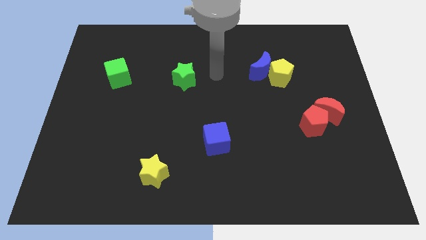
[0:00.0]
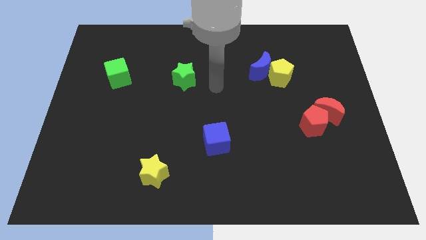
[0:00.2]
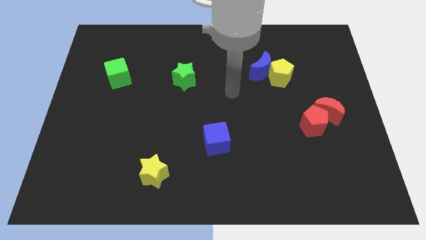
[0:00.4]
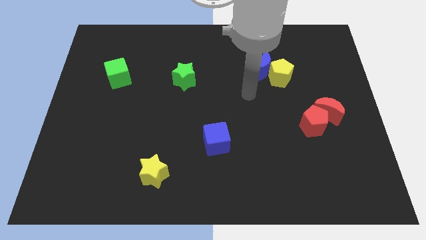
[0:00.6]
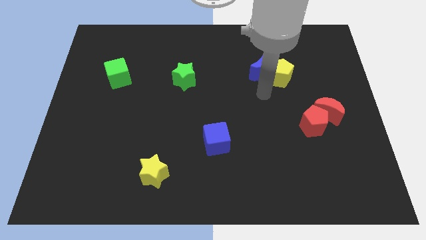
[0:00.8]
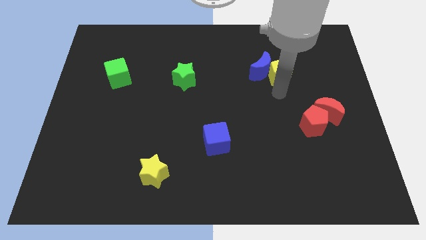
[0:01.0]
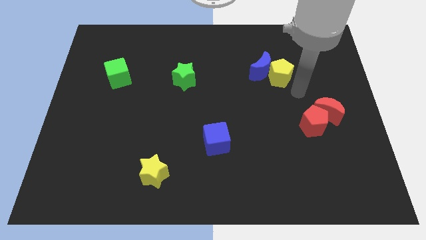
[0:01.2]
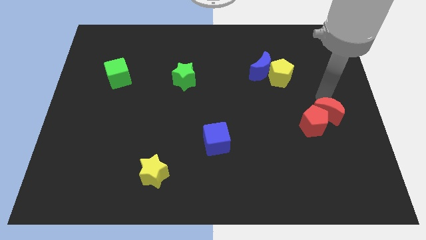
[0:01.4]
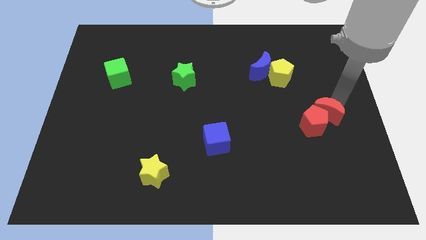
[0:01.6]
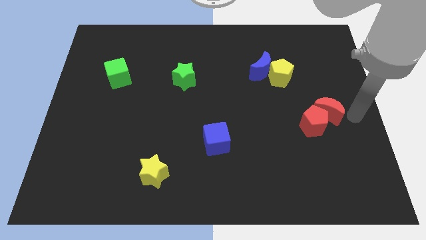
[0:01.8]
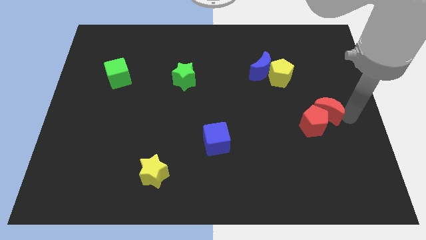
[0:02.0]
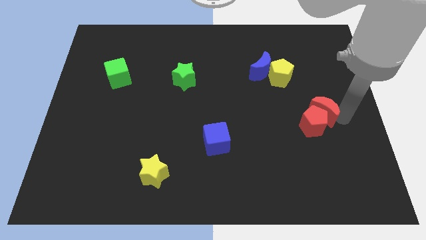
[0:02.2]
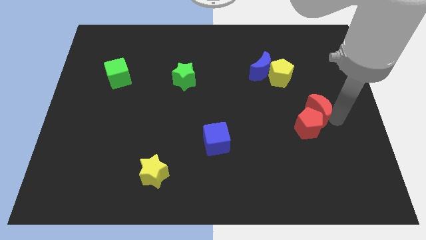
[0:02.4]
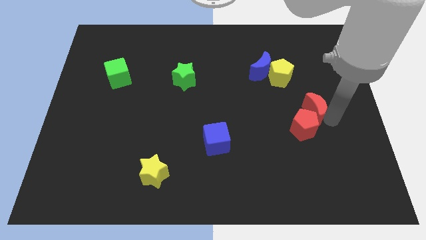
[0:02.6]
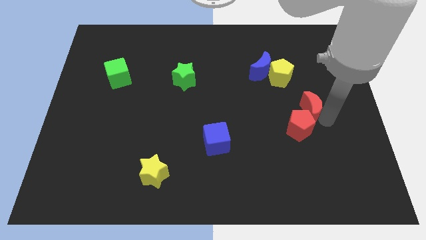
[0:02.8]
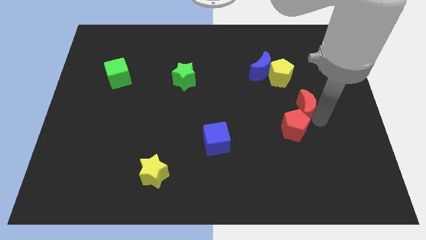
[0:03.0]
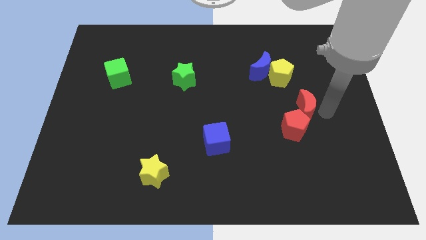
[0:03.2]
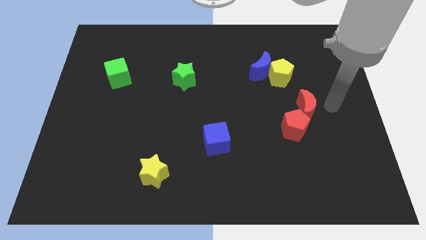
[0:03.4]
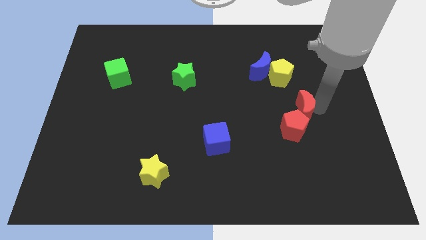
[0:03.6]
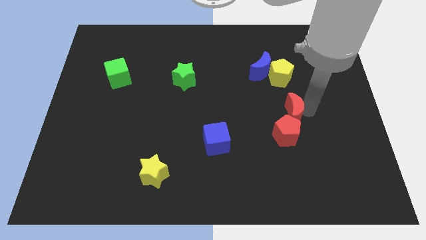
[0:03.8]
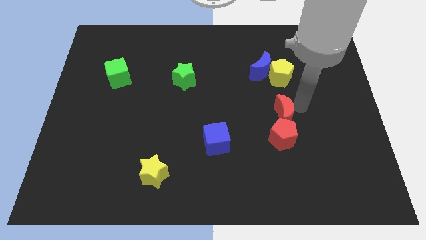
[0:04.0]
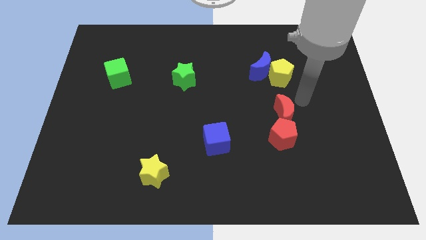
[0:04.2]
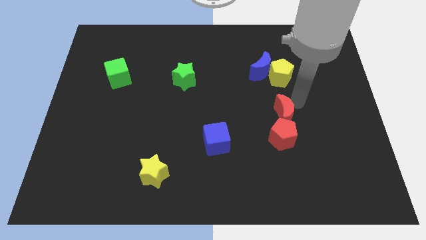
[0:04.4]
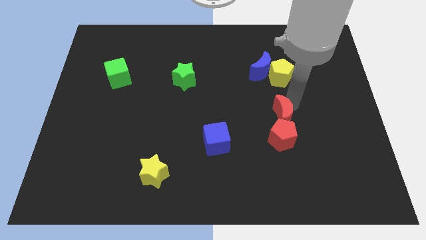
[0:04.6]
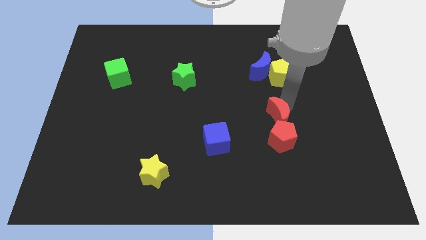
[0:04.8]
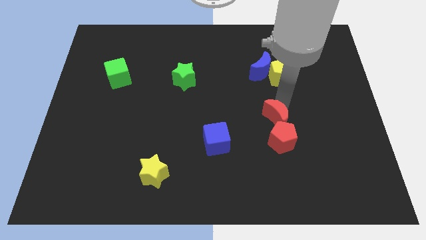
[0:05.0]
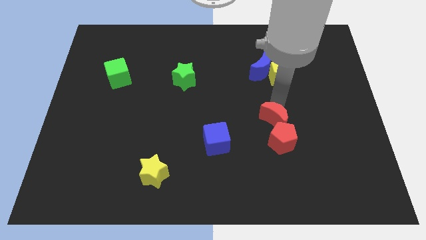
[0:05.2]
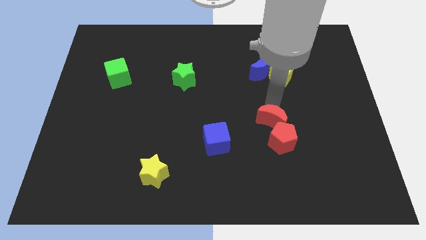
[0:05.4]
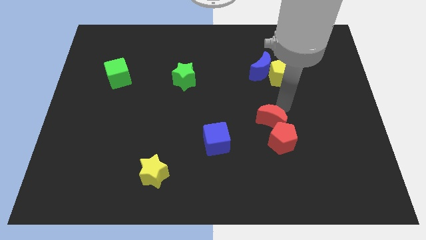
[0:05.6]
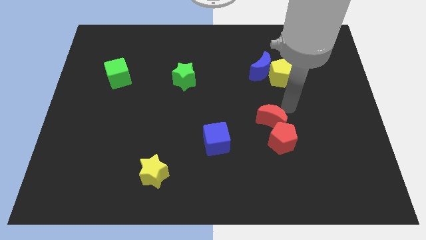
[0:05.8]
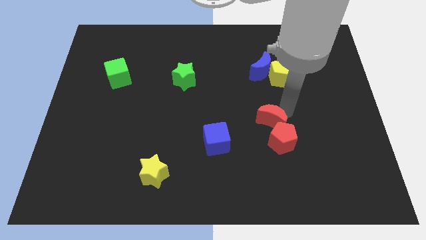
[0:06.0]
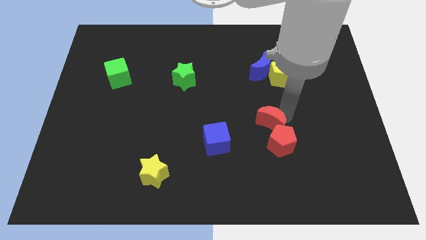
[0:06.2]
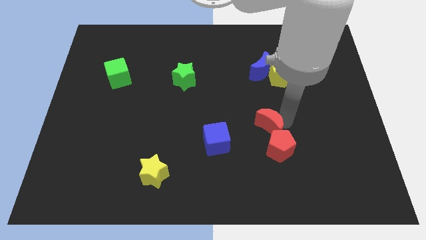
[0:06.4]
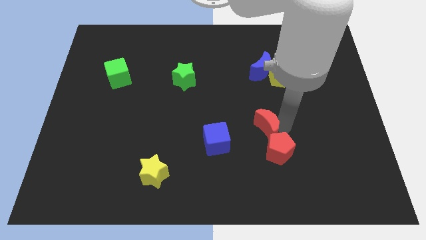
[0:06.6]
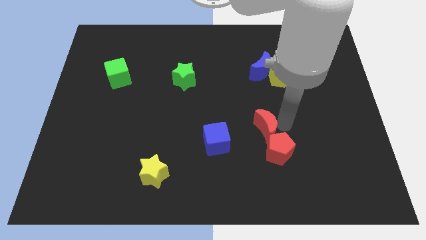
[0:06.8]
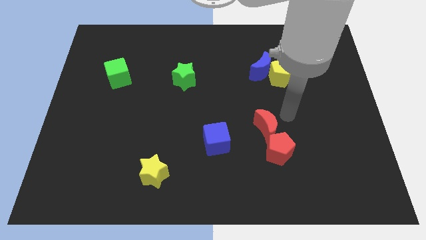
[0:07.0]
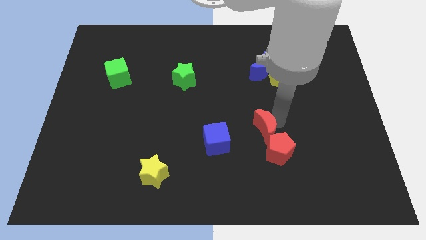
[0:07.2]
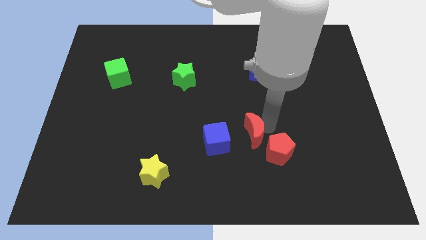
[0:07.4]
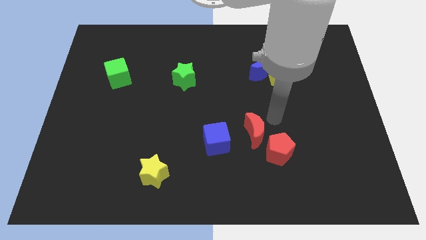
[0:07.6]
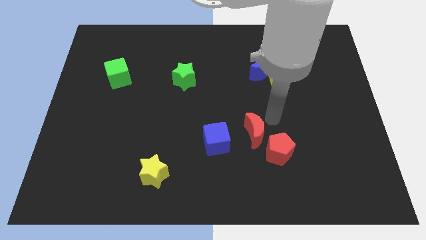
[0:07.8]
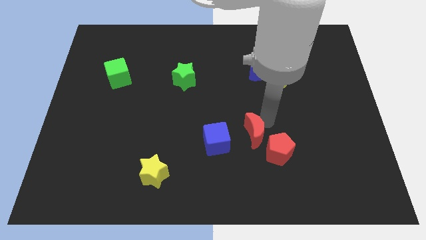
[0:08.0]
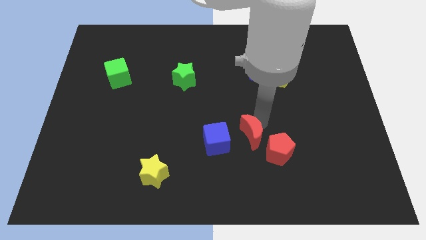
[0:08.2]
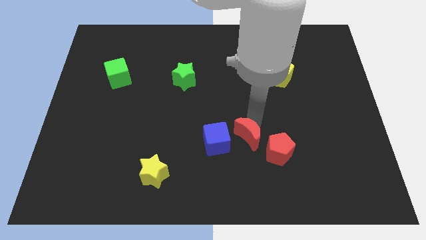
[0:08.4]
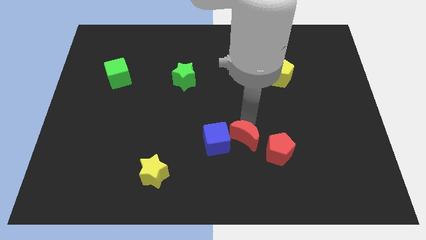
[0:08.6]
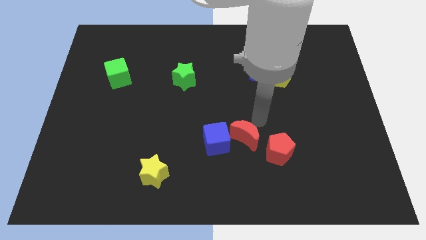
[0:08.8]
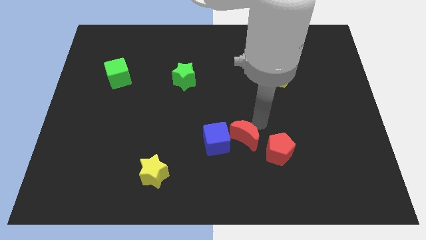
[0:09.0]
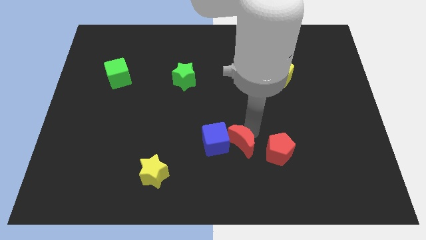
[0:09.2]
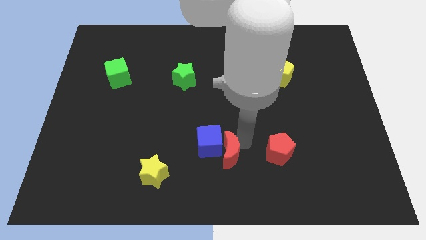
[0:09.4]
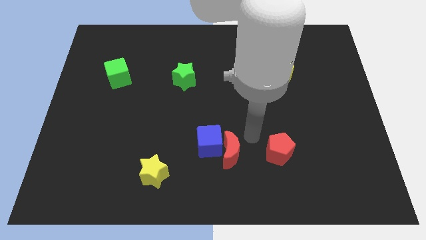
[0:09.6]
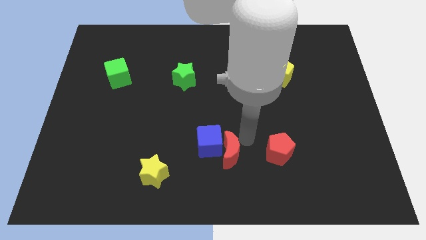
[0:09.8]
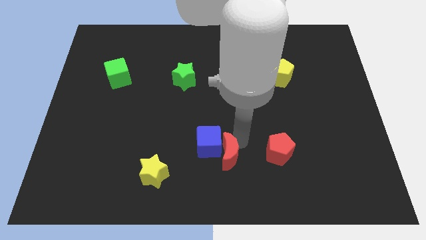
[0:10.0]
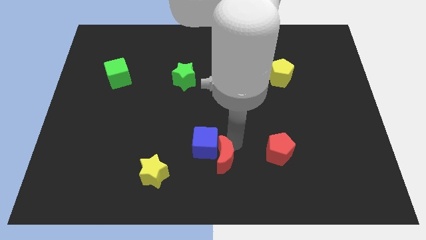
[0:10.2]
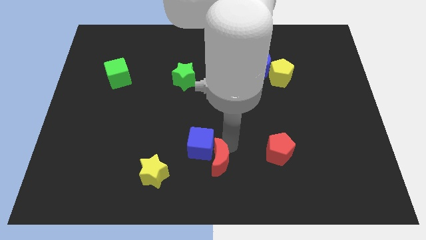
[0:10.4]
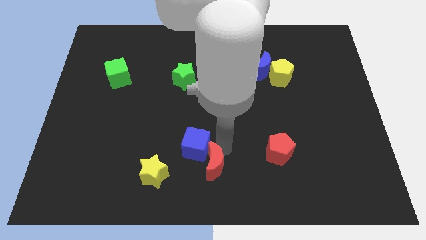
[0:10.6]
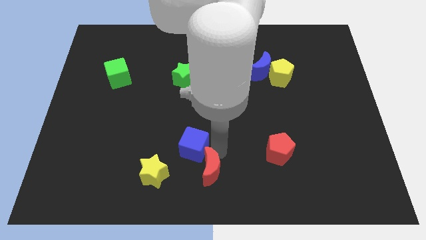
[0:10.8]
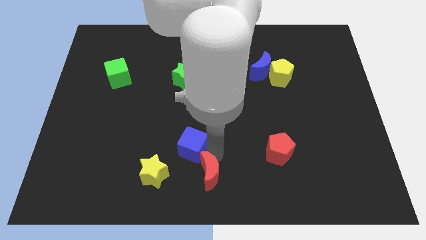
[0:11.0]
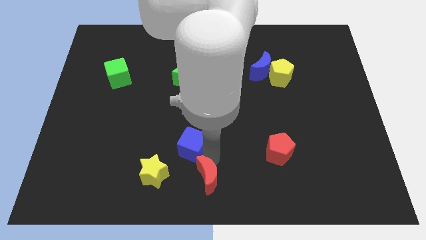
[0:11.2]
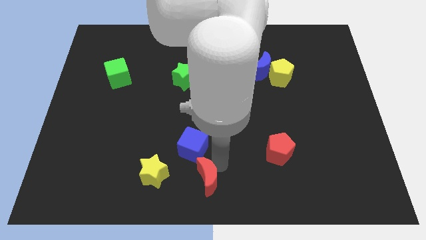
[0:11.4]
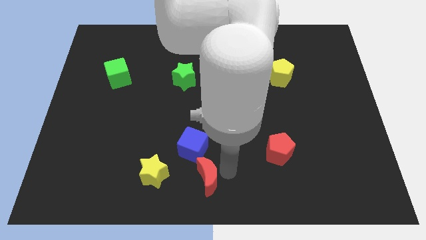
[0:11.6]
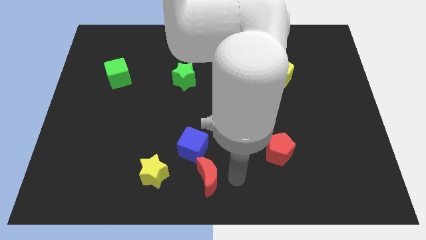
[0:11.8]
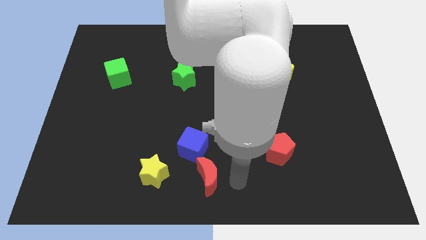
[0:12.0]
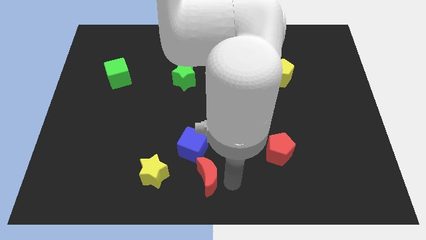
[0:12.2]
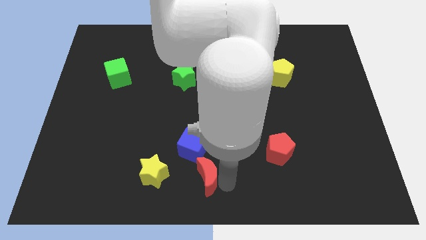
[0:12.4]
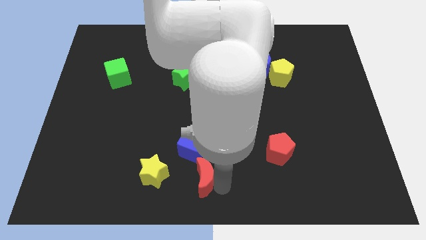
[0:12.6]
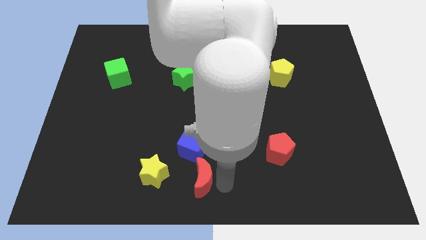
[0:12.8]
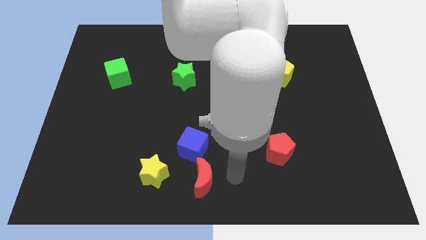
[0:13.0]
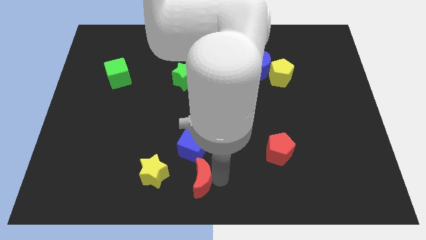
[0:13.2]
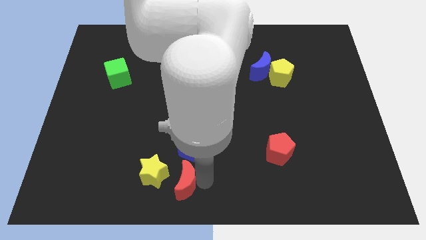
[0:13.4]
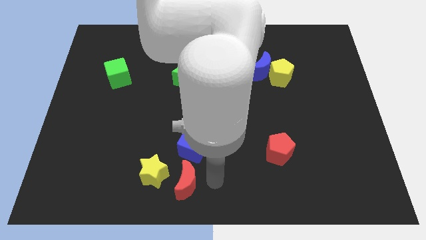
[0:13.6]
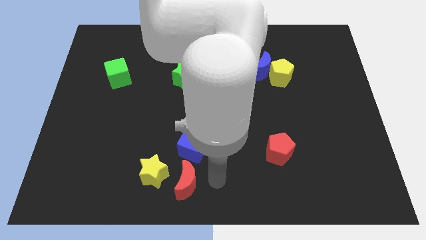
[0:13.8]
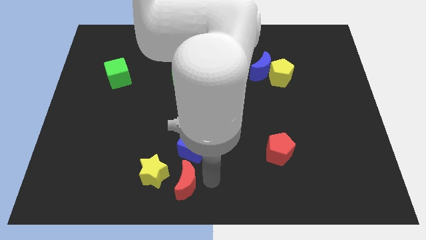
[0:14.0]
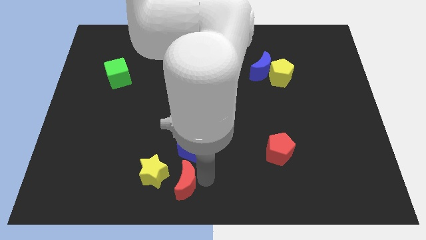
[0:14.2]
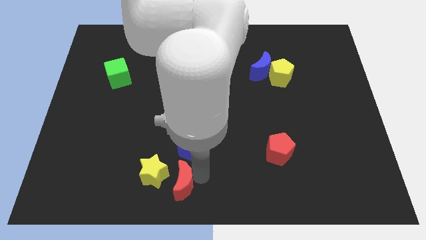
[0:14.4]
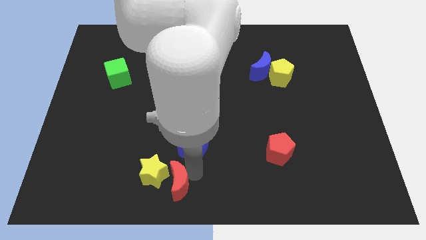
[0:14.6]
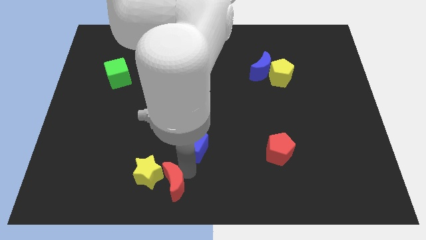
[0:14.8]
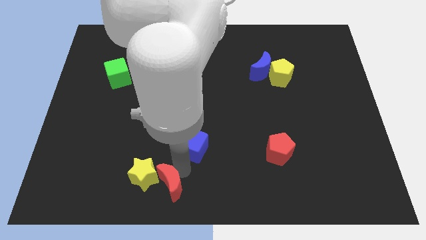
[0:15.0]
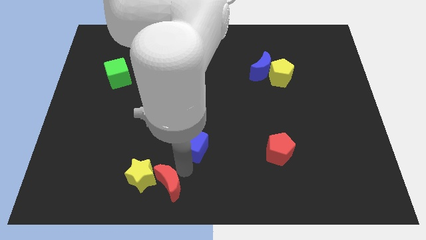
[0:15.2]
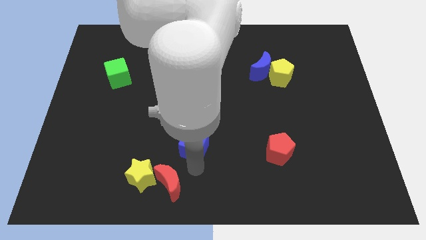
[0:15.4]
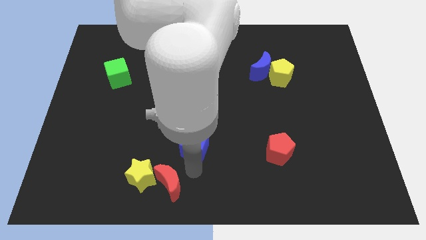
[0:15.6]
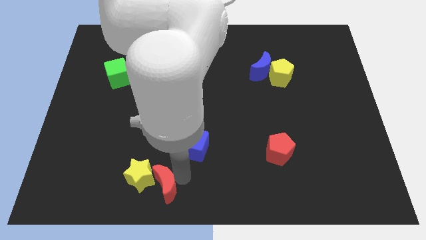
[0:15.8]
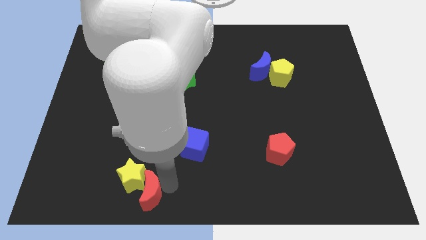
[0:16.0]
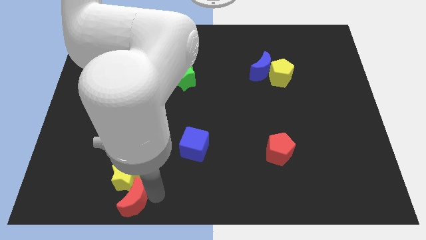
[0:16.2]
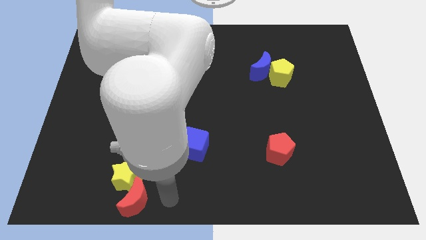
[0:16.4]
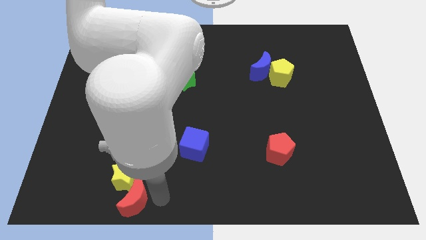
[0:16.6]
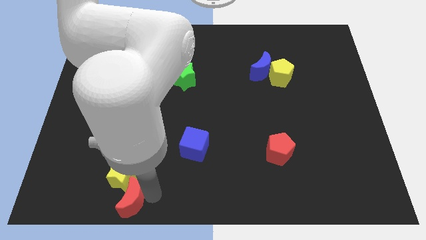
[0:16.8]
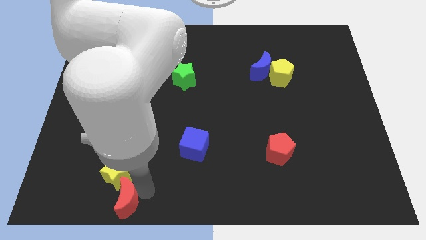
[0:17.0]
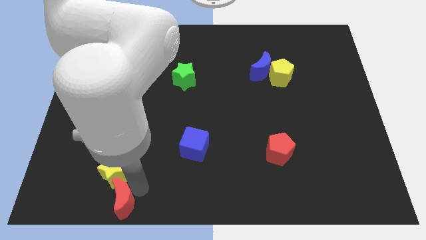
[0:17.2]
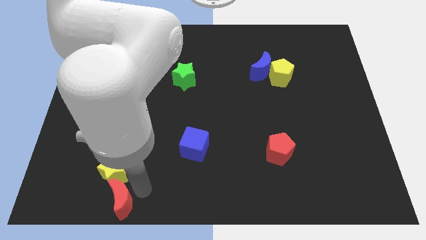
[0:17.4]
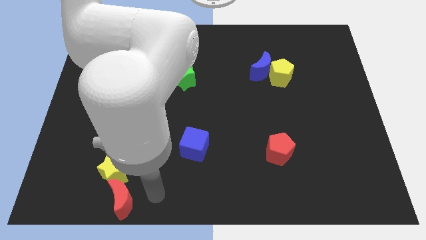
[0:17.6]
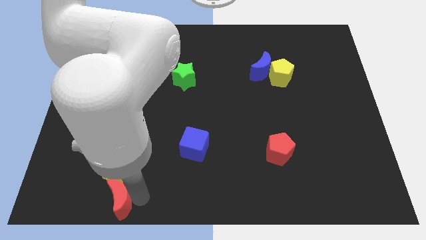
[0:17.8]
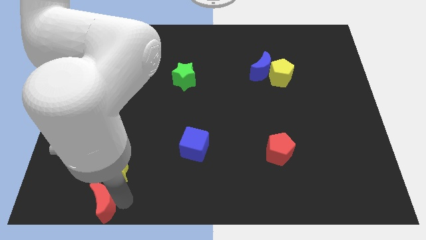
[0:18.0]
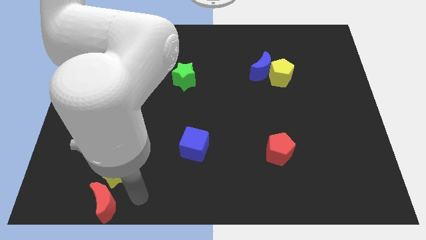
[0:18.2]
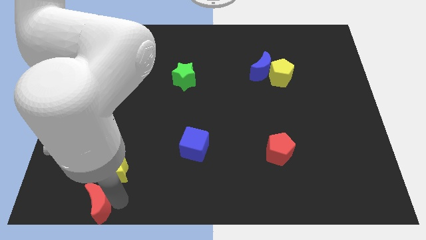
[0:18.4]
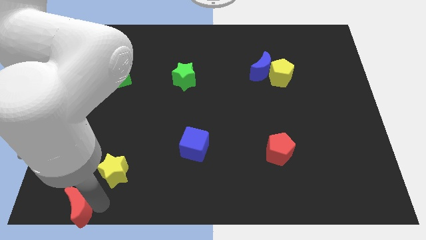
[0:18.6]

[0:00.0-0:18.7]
slide the red moon to the lower left corner
